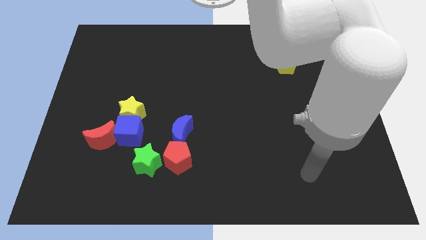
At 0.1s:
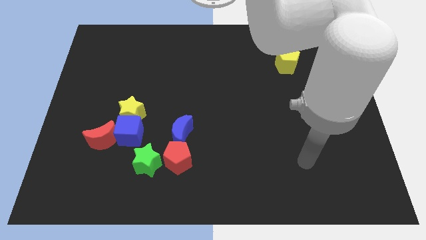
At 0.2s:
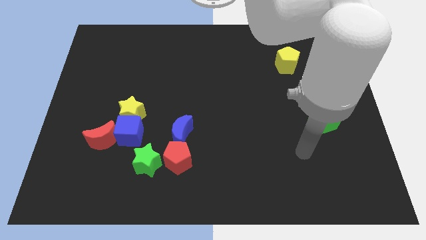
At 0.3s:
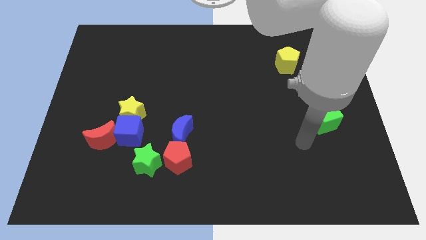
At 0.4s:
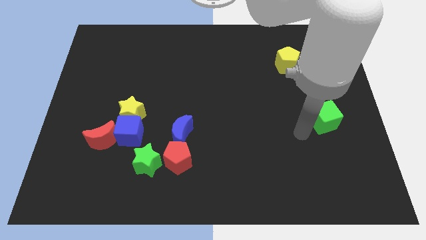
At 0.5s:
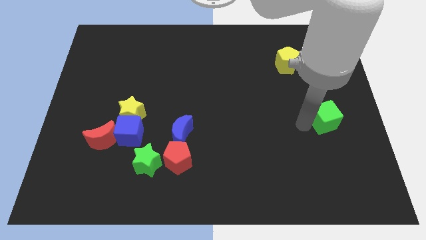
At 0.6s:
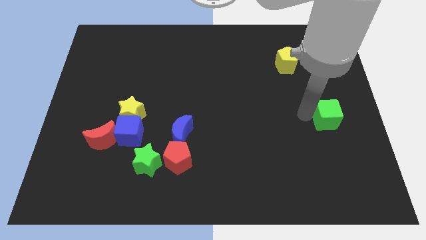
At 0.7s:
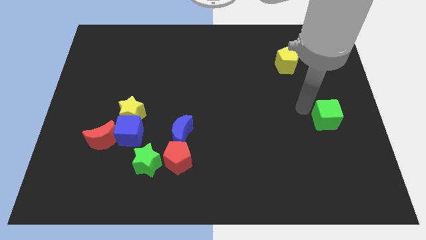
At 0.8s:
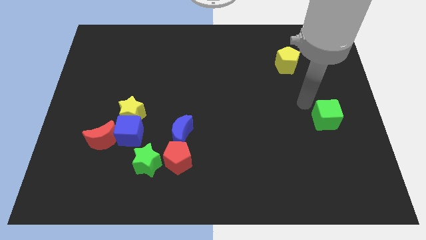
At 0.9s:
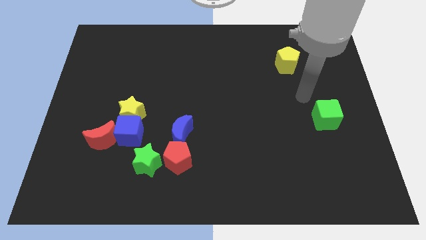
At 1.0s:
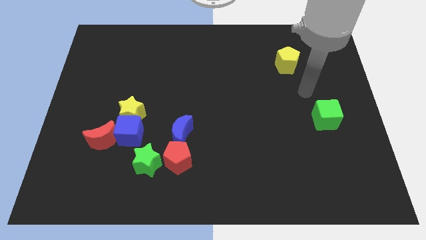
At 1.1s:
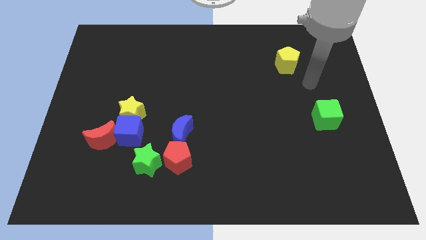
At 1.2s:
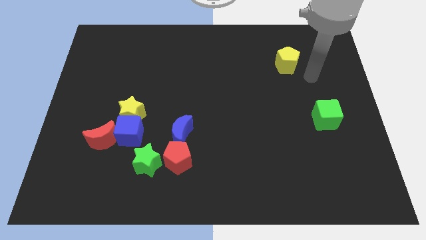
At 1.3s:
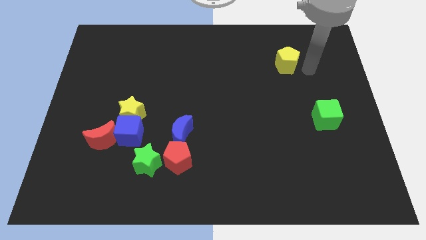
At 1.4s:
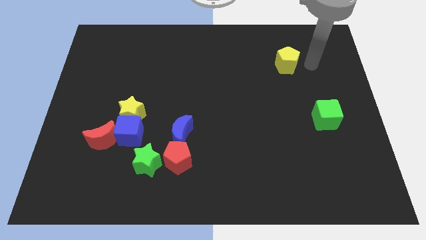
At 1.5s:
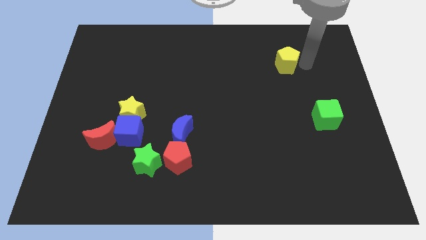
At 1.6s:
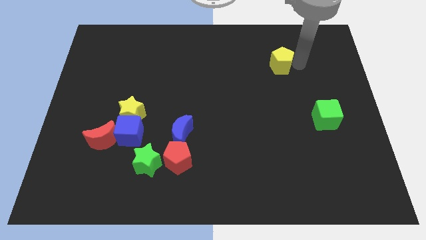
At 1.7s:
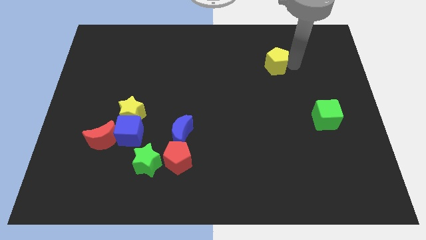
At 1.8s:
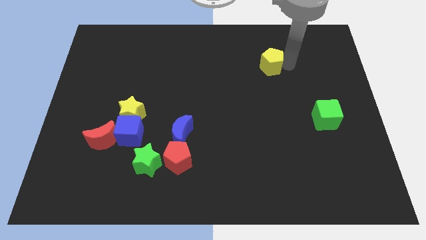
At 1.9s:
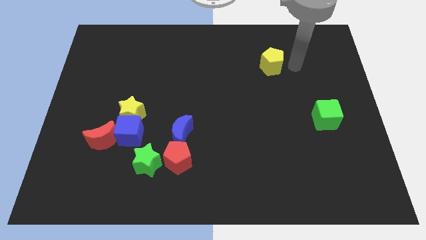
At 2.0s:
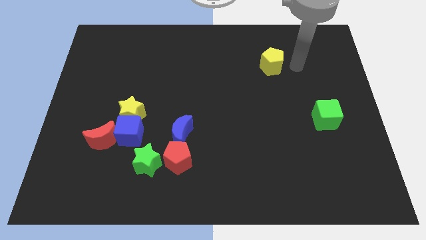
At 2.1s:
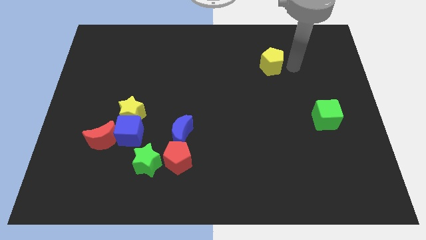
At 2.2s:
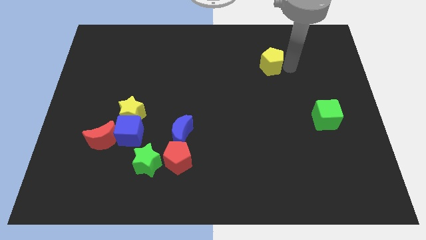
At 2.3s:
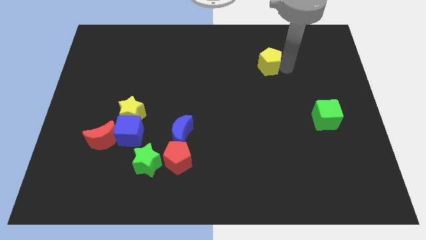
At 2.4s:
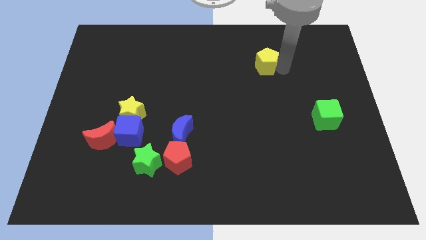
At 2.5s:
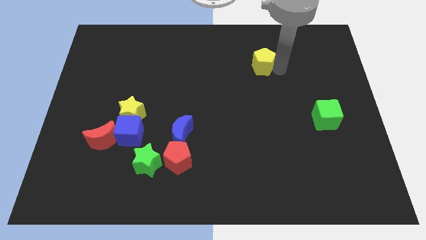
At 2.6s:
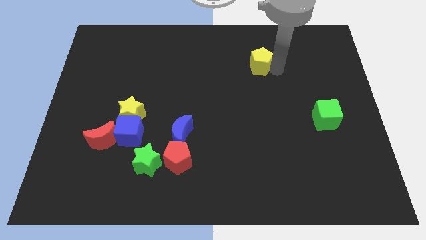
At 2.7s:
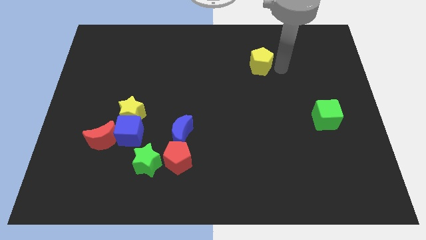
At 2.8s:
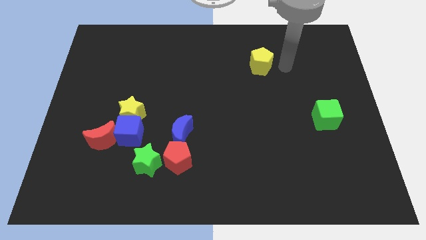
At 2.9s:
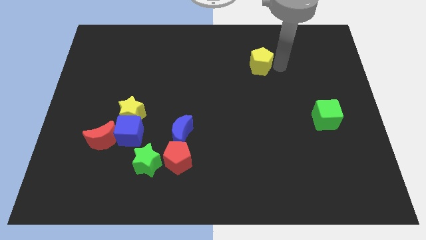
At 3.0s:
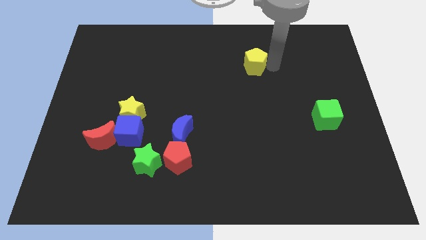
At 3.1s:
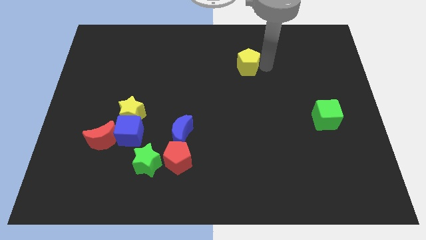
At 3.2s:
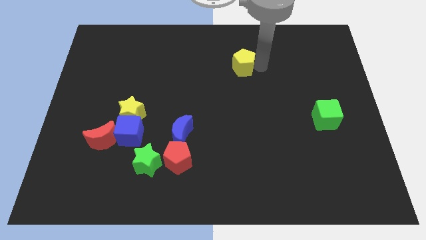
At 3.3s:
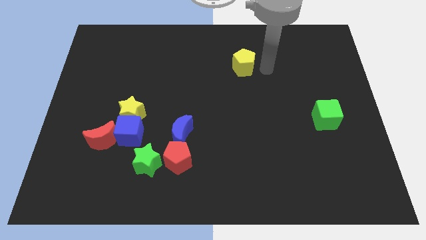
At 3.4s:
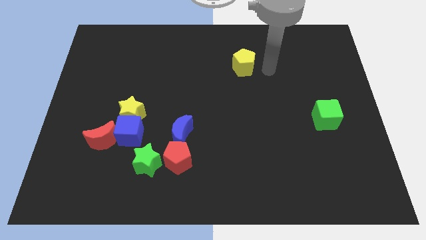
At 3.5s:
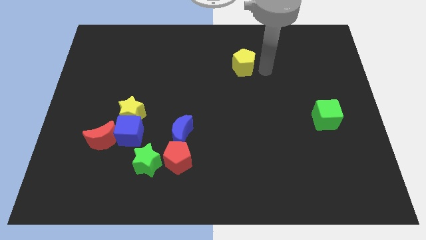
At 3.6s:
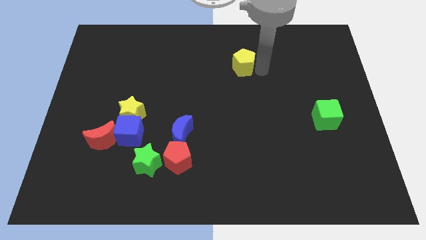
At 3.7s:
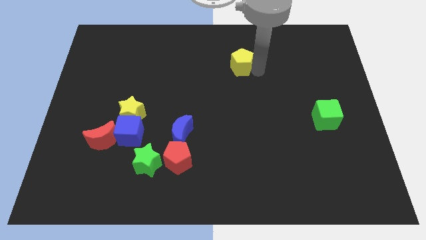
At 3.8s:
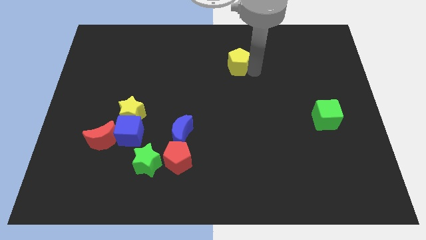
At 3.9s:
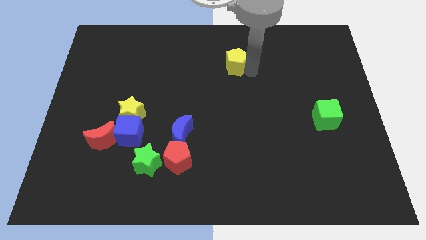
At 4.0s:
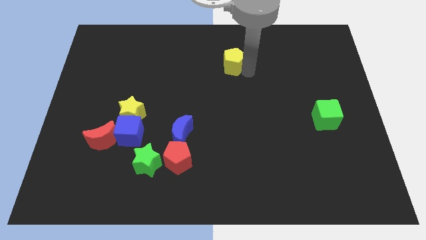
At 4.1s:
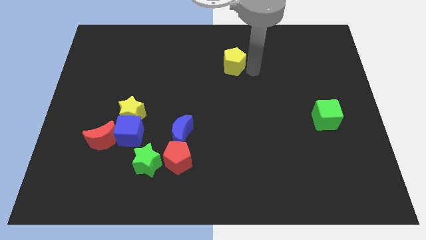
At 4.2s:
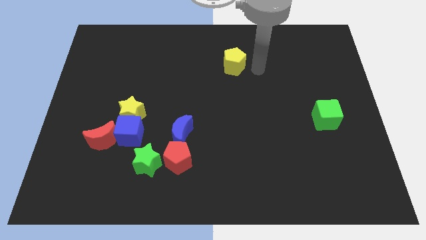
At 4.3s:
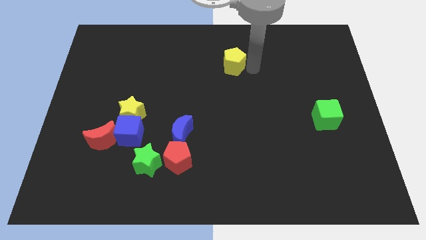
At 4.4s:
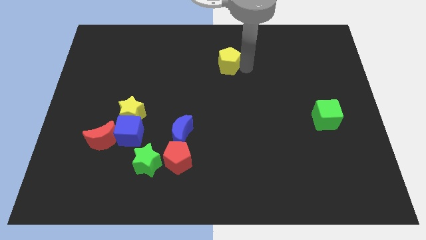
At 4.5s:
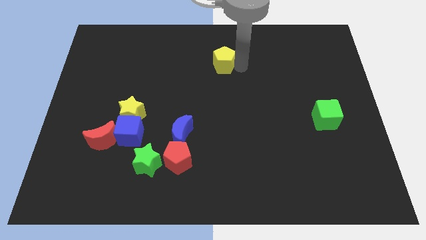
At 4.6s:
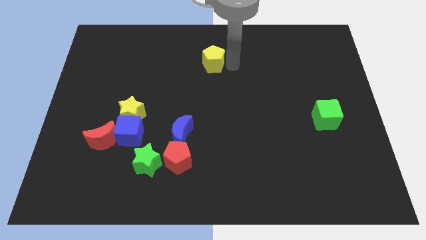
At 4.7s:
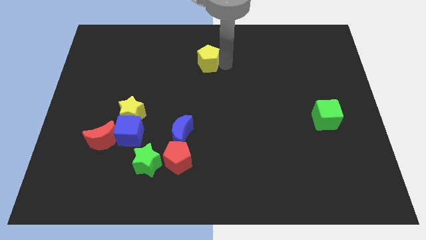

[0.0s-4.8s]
slide the yellow pentagon to the left
